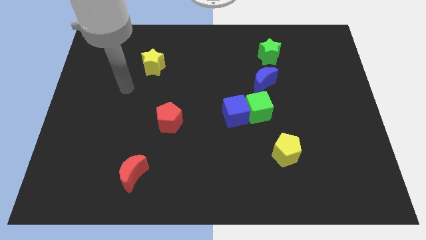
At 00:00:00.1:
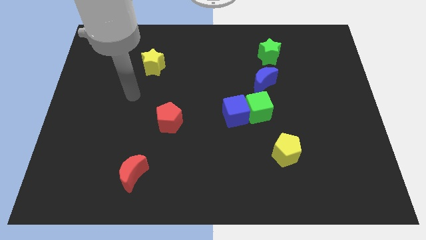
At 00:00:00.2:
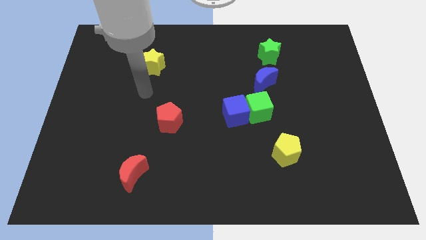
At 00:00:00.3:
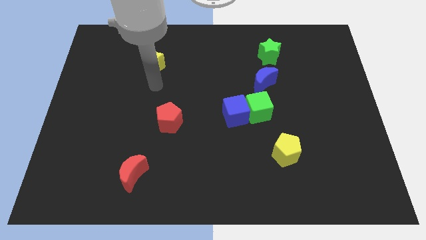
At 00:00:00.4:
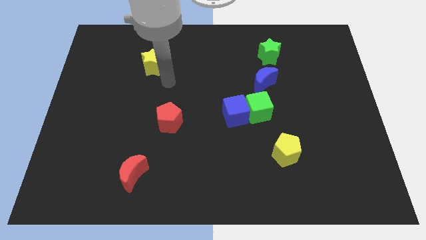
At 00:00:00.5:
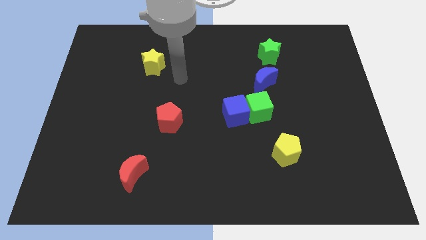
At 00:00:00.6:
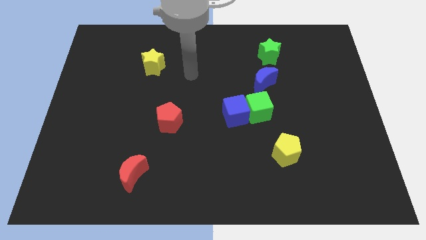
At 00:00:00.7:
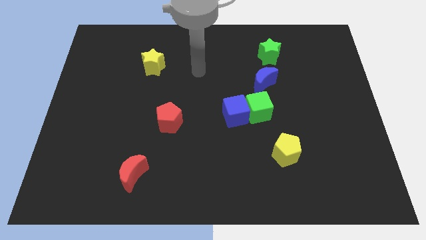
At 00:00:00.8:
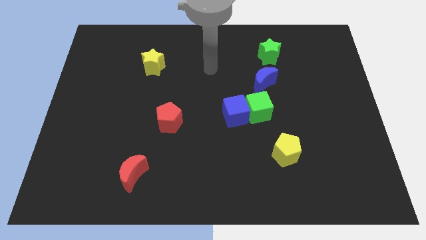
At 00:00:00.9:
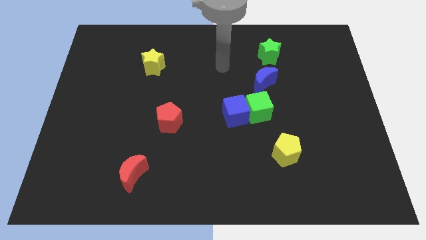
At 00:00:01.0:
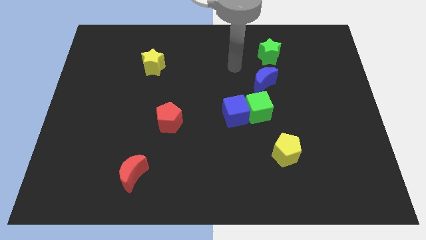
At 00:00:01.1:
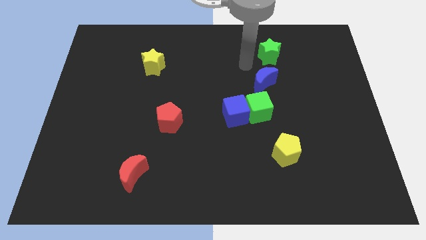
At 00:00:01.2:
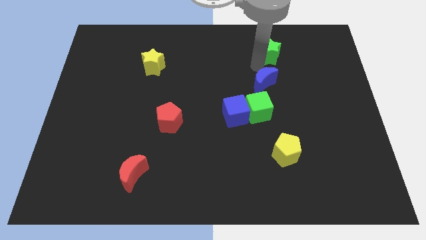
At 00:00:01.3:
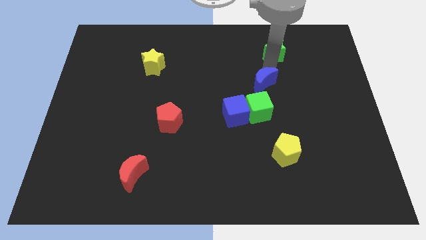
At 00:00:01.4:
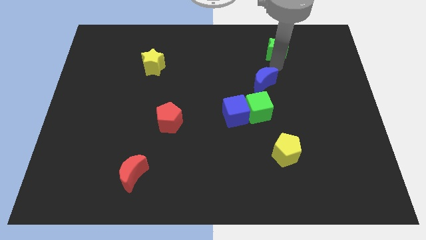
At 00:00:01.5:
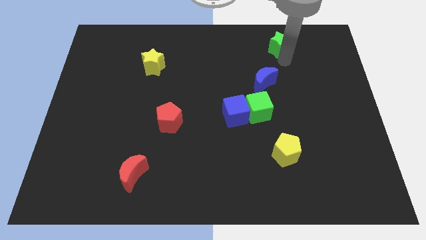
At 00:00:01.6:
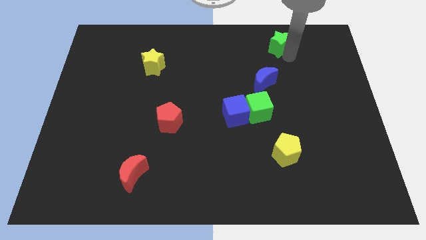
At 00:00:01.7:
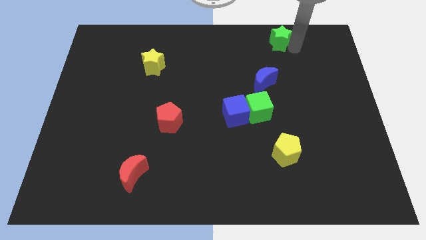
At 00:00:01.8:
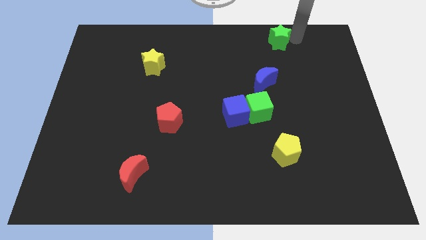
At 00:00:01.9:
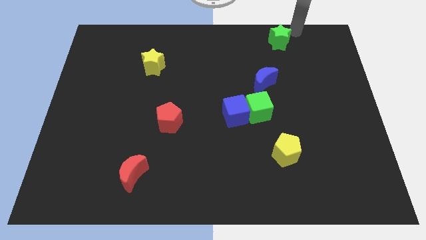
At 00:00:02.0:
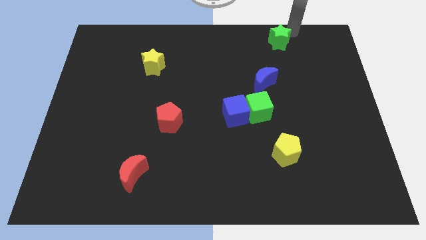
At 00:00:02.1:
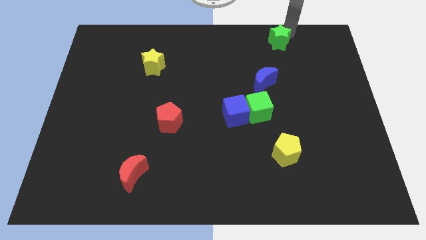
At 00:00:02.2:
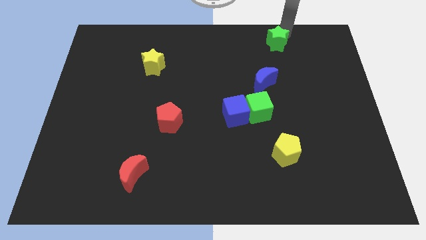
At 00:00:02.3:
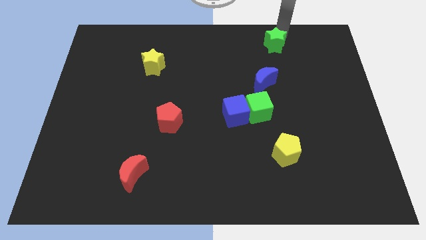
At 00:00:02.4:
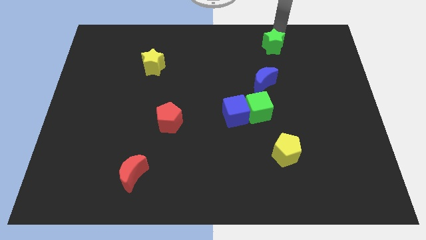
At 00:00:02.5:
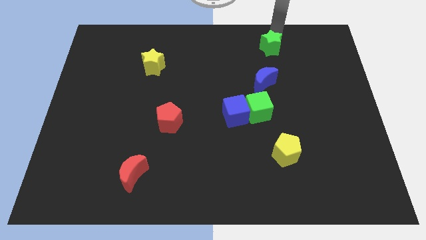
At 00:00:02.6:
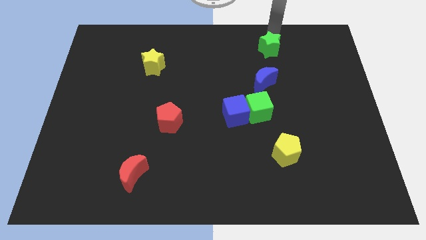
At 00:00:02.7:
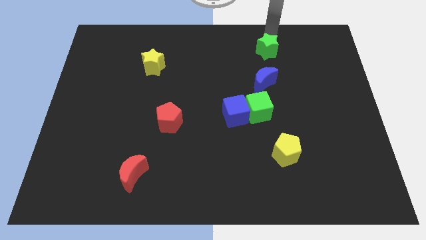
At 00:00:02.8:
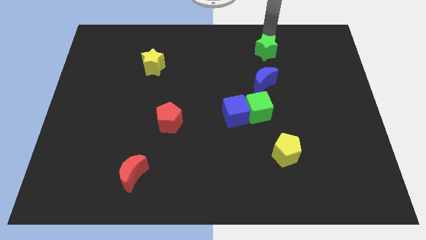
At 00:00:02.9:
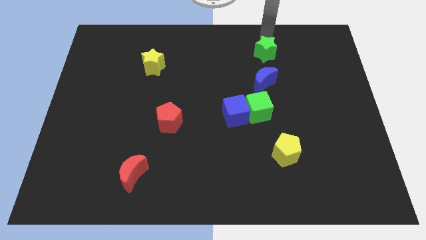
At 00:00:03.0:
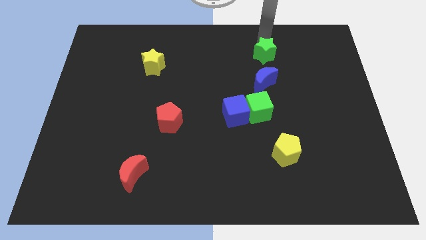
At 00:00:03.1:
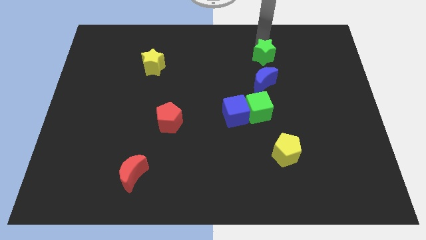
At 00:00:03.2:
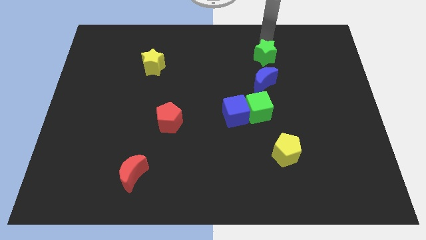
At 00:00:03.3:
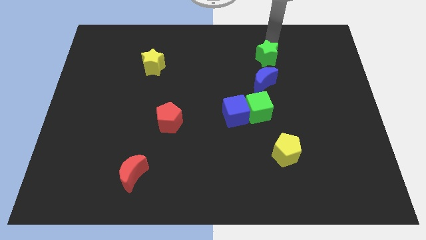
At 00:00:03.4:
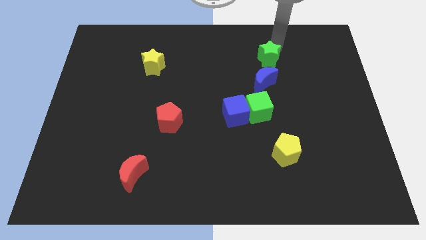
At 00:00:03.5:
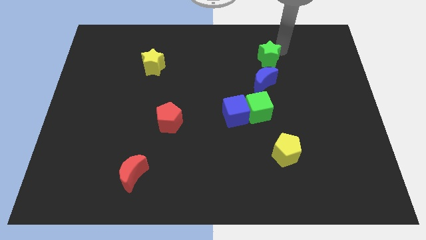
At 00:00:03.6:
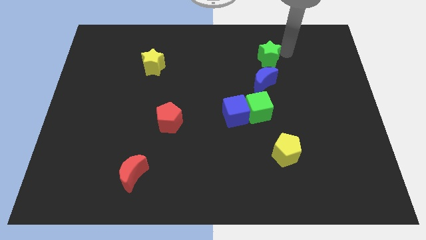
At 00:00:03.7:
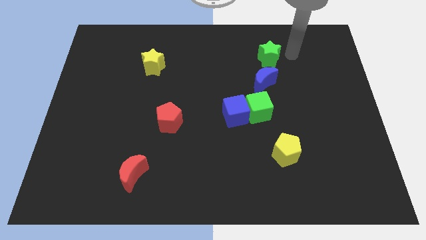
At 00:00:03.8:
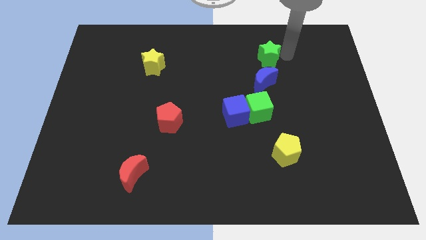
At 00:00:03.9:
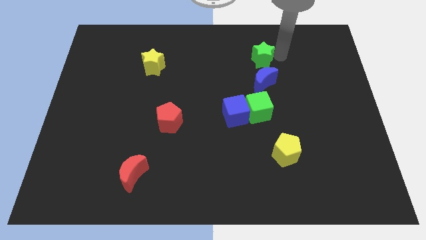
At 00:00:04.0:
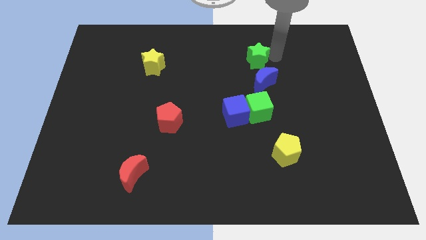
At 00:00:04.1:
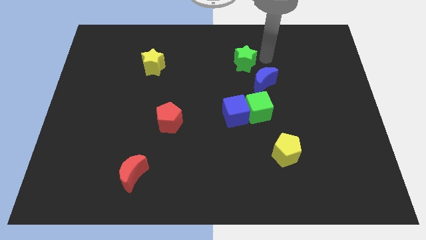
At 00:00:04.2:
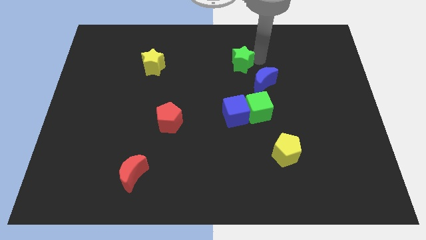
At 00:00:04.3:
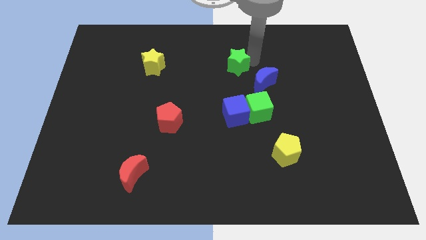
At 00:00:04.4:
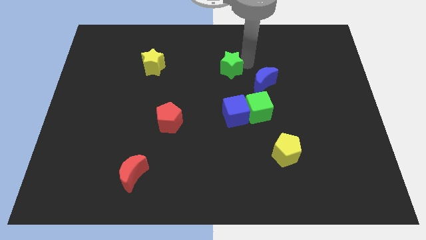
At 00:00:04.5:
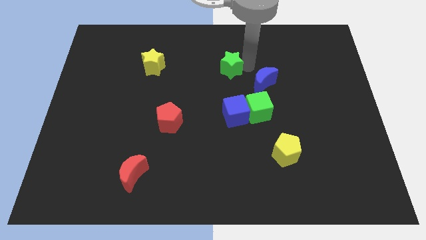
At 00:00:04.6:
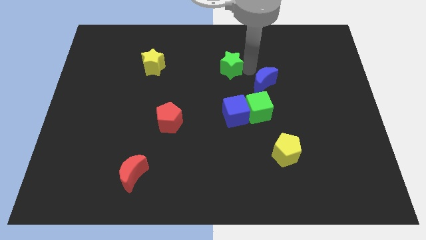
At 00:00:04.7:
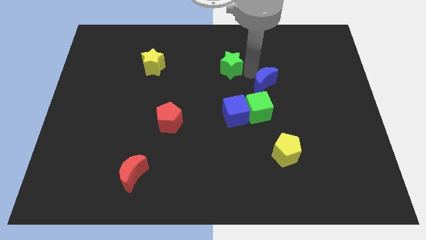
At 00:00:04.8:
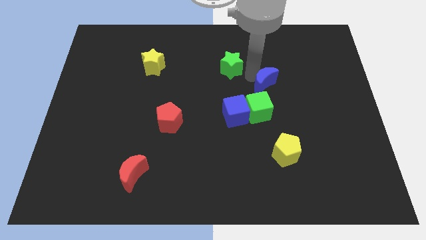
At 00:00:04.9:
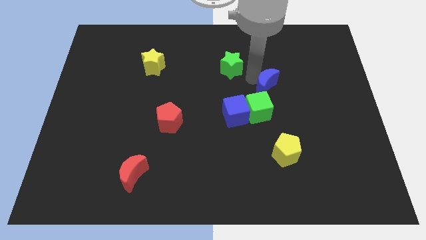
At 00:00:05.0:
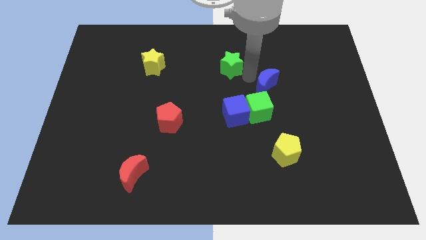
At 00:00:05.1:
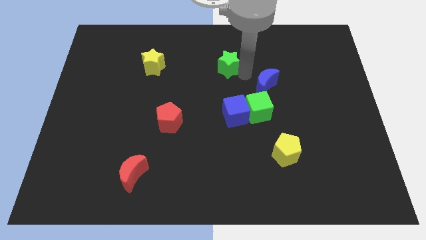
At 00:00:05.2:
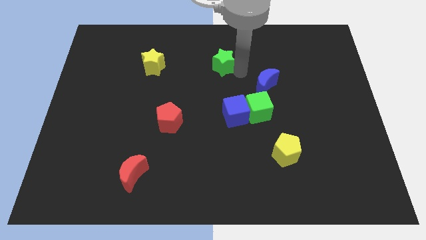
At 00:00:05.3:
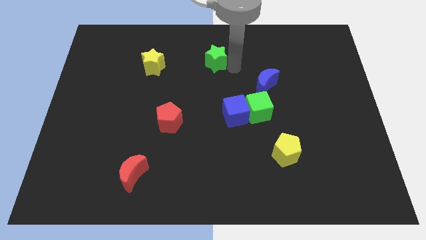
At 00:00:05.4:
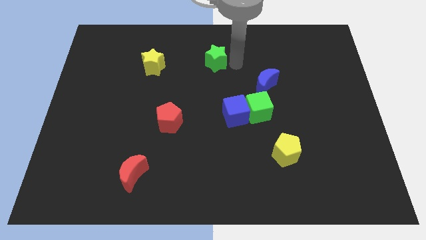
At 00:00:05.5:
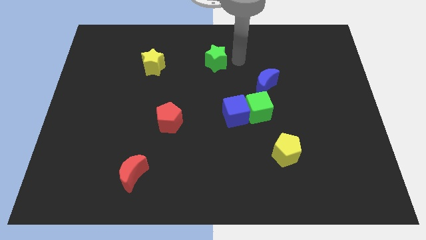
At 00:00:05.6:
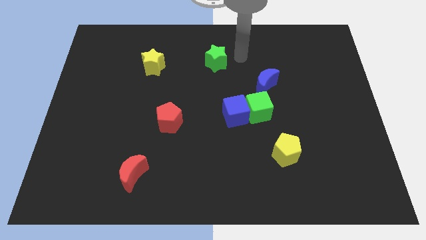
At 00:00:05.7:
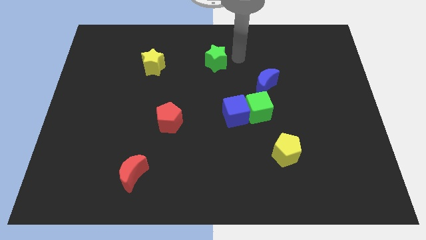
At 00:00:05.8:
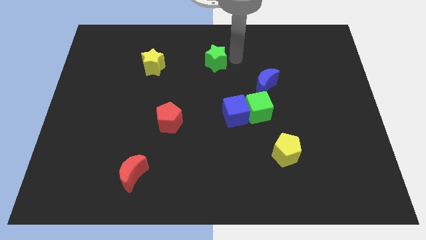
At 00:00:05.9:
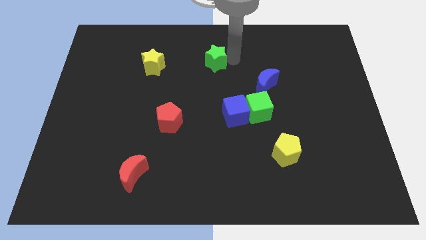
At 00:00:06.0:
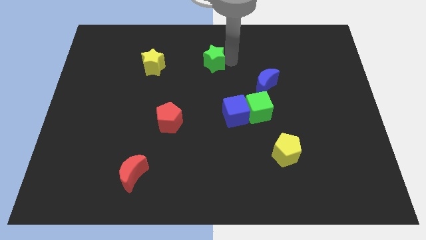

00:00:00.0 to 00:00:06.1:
slide the green star to the right of the yellow star
